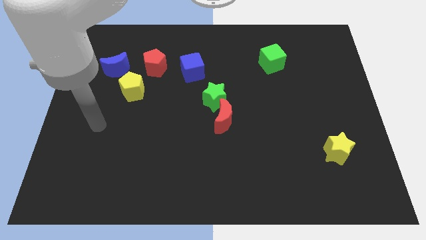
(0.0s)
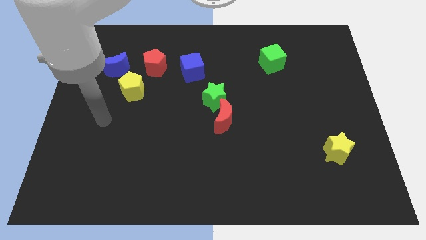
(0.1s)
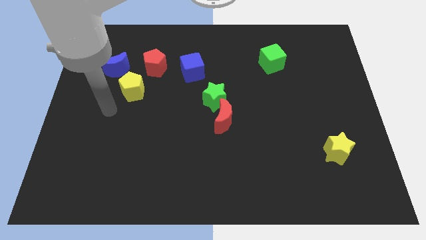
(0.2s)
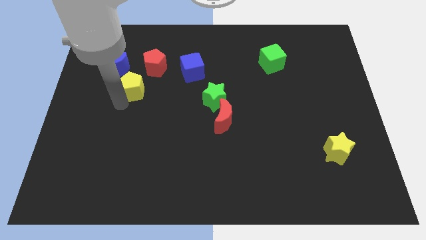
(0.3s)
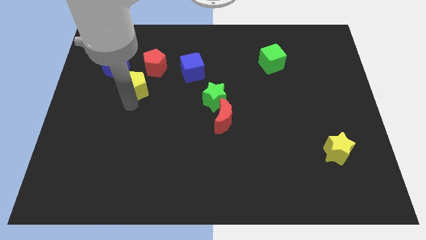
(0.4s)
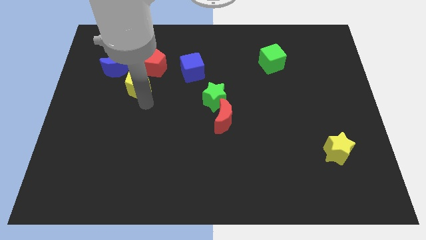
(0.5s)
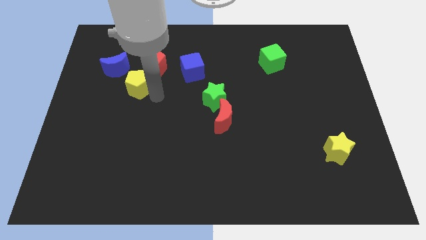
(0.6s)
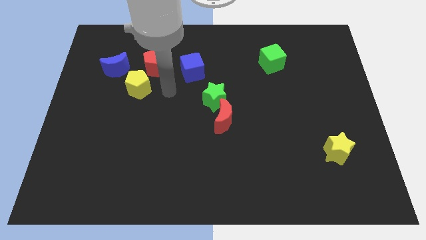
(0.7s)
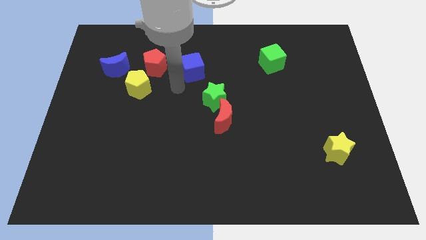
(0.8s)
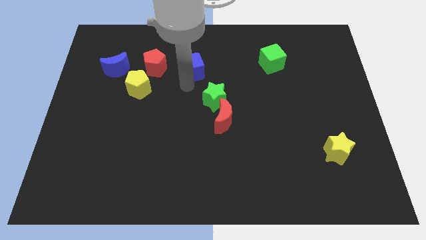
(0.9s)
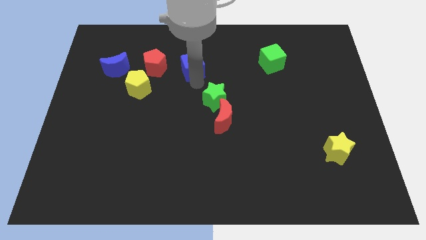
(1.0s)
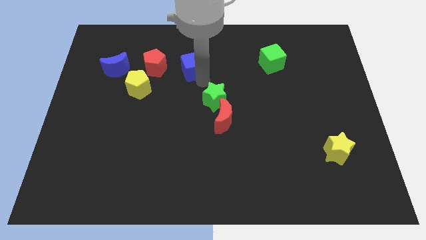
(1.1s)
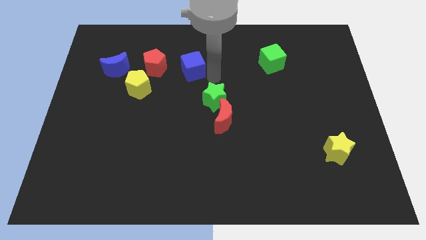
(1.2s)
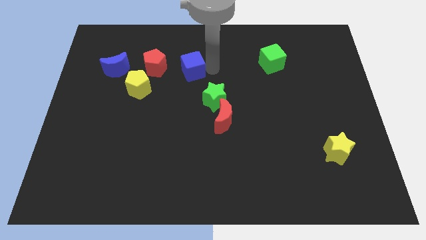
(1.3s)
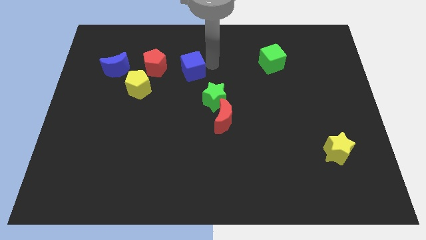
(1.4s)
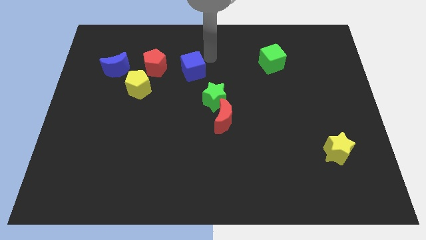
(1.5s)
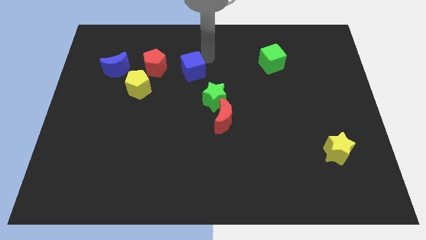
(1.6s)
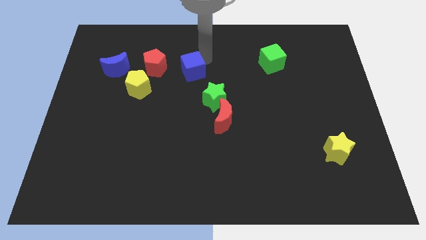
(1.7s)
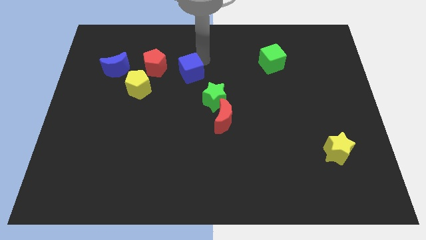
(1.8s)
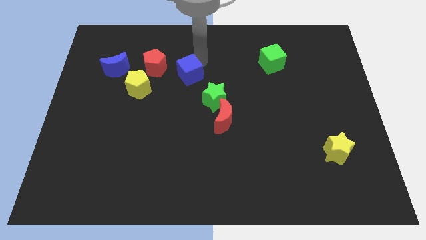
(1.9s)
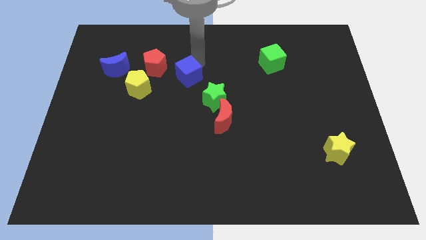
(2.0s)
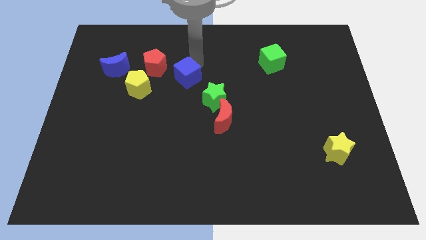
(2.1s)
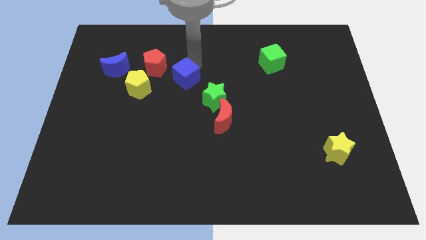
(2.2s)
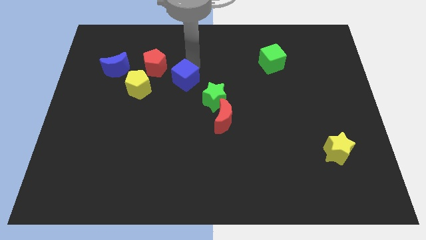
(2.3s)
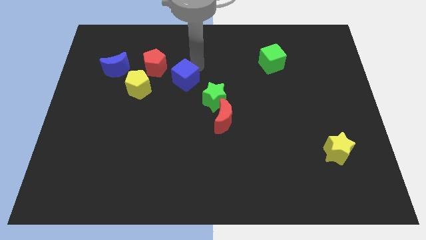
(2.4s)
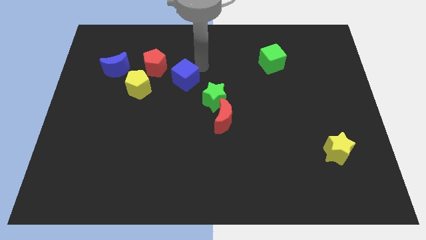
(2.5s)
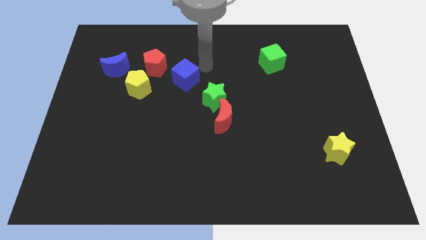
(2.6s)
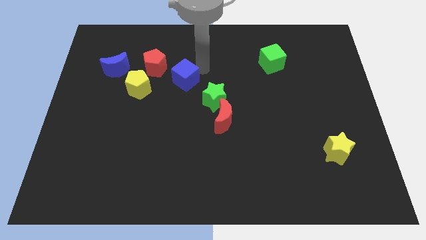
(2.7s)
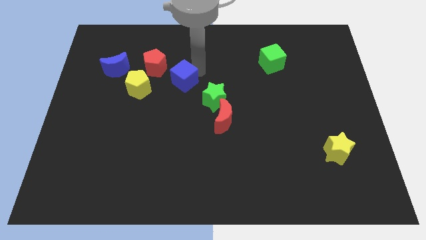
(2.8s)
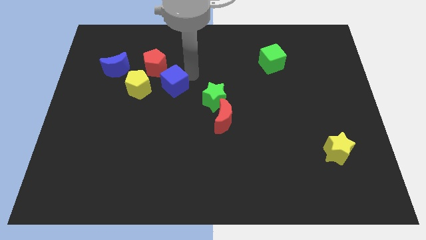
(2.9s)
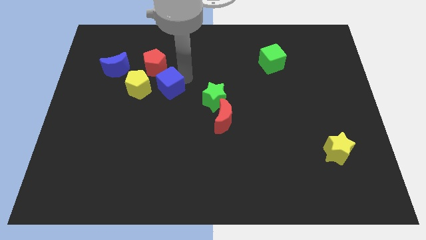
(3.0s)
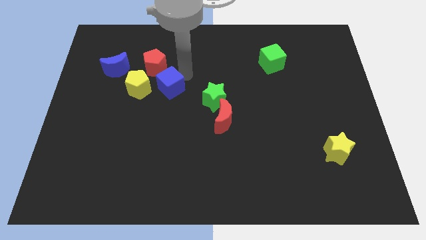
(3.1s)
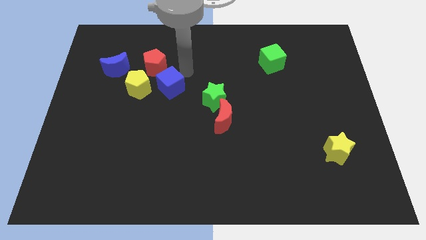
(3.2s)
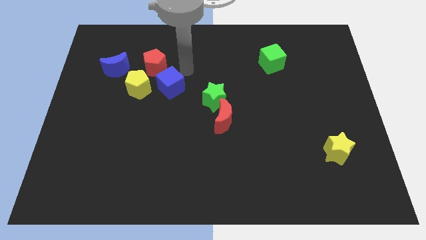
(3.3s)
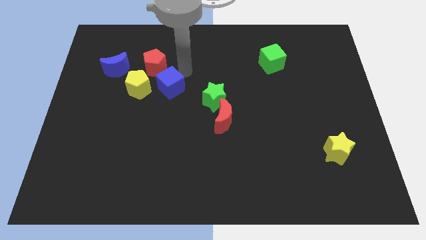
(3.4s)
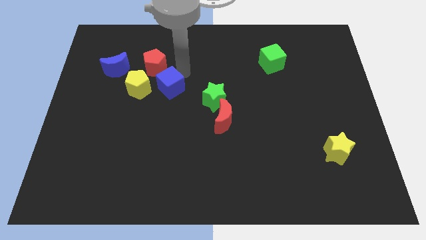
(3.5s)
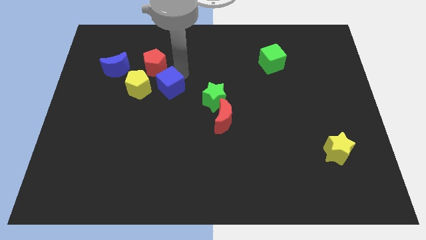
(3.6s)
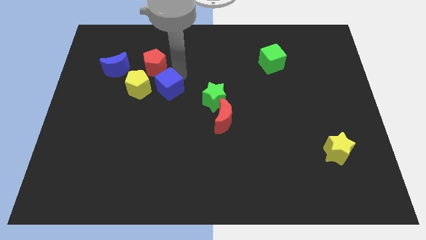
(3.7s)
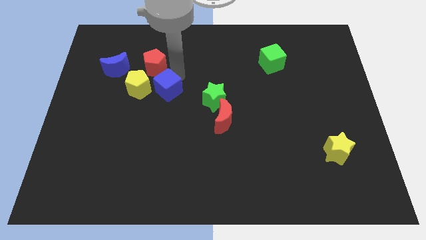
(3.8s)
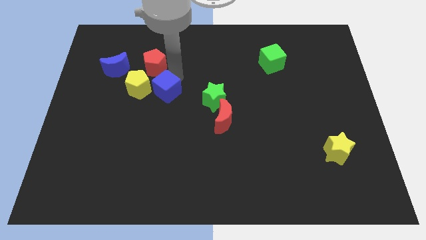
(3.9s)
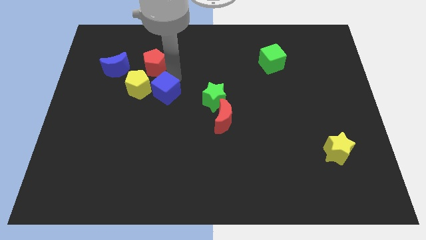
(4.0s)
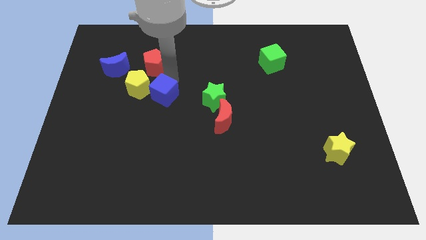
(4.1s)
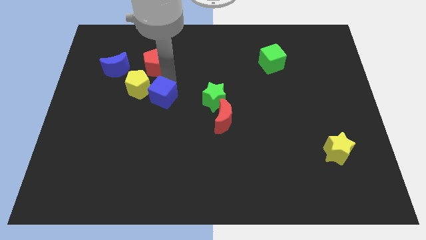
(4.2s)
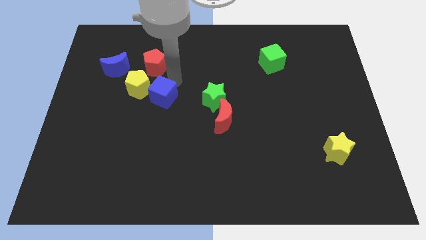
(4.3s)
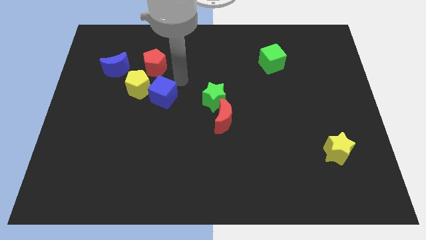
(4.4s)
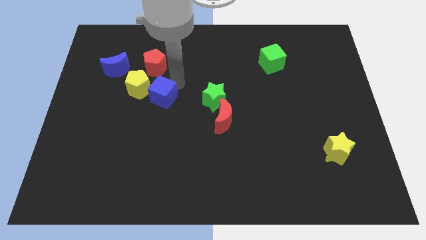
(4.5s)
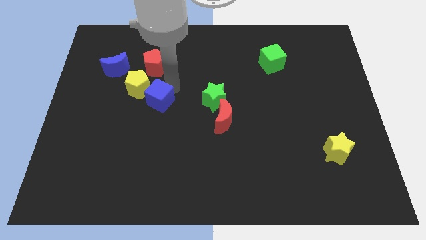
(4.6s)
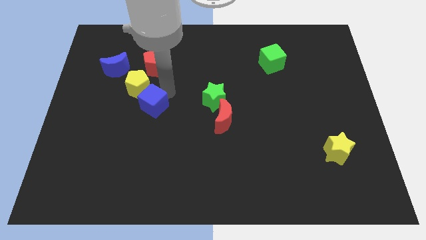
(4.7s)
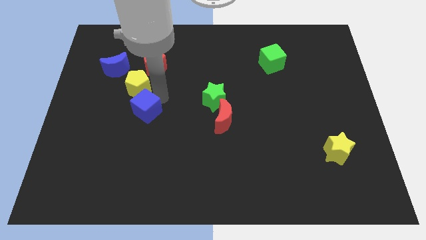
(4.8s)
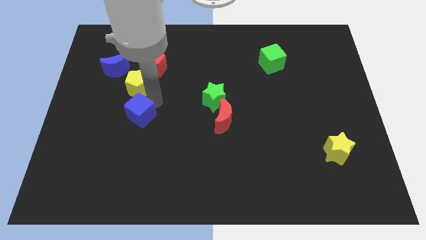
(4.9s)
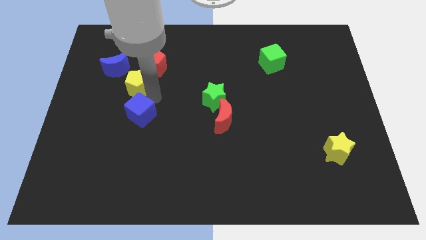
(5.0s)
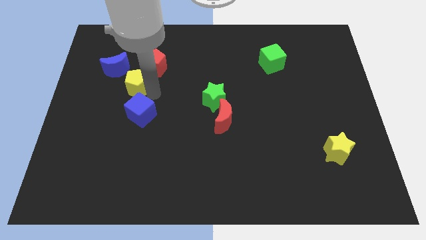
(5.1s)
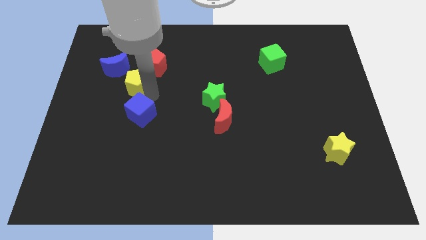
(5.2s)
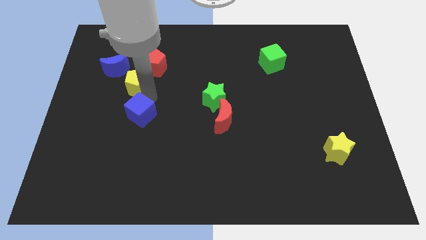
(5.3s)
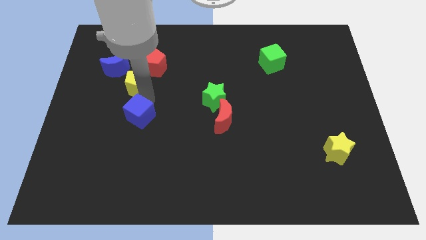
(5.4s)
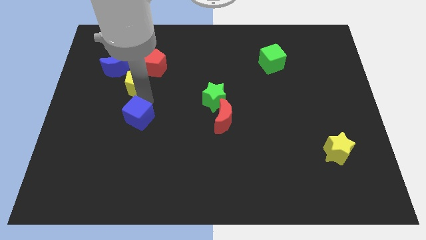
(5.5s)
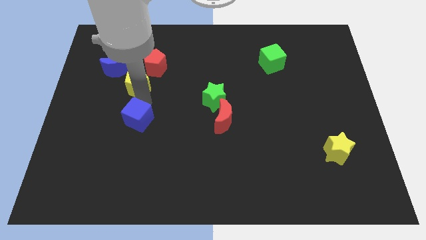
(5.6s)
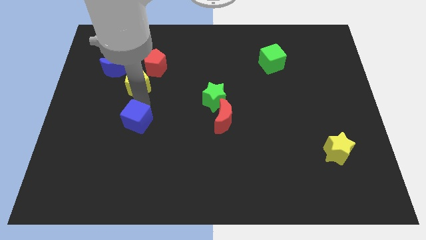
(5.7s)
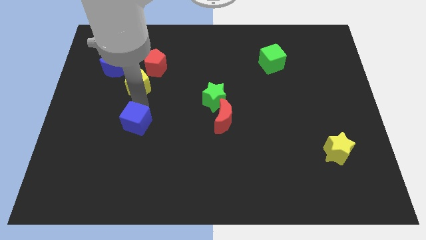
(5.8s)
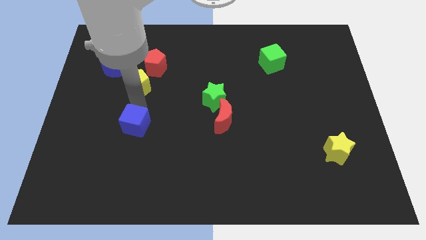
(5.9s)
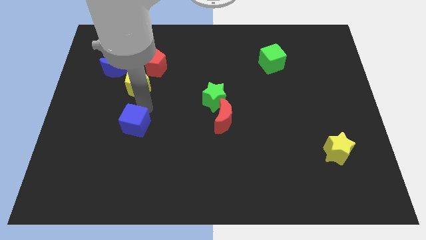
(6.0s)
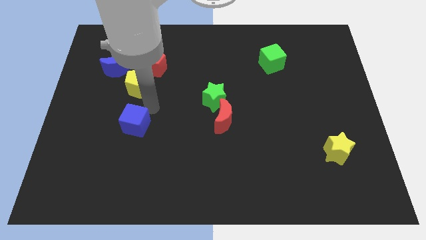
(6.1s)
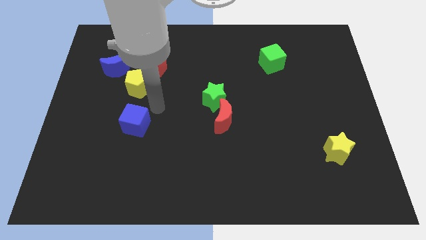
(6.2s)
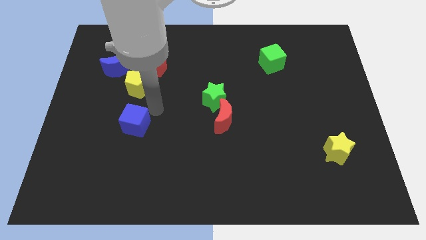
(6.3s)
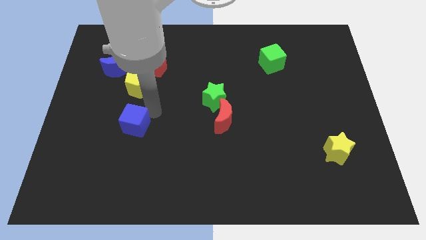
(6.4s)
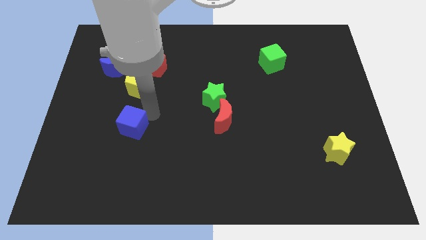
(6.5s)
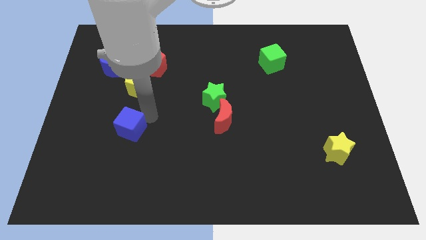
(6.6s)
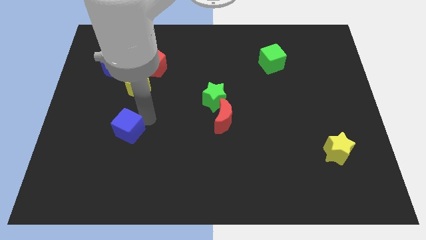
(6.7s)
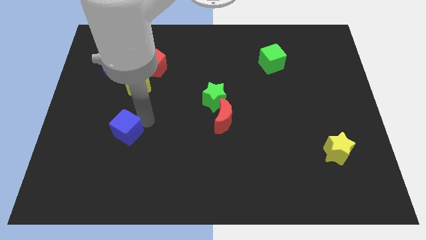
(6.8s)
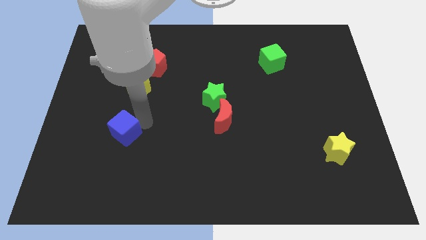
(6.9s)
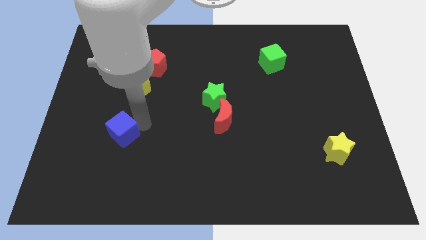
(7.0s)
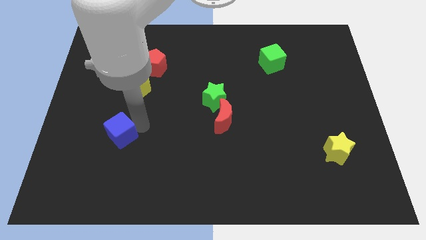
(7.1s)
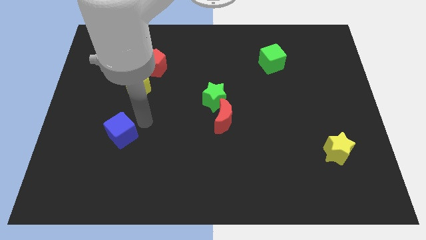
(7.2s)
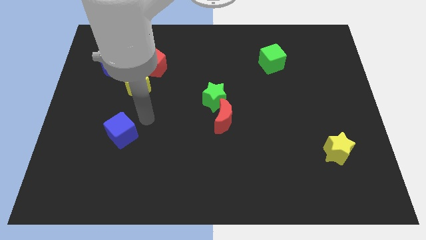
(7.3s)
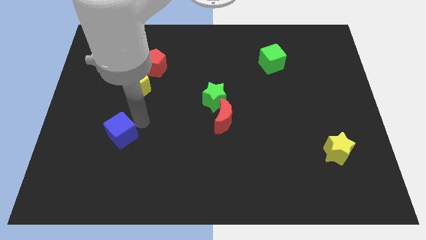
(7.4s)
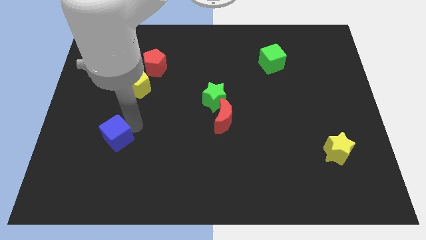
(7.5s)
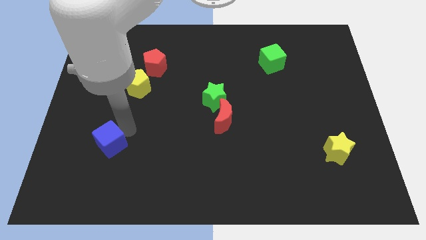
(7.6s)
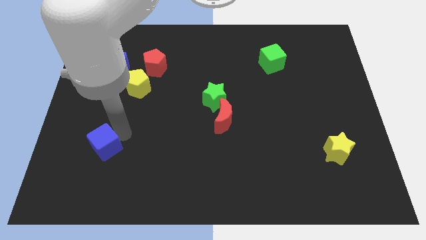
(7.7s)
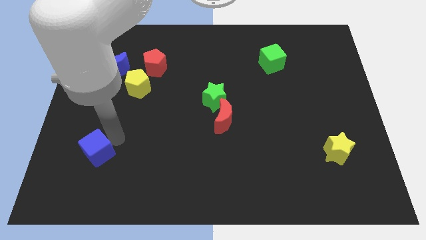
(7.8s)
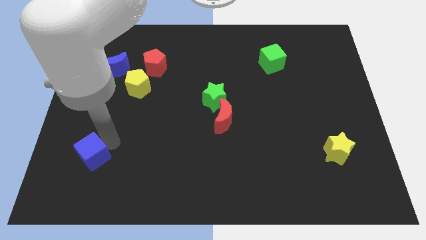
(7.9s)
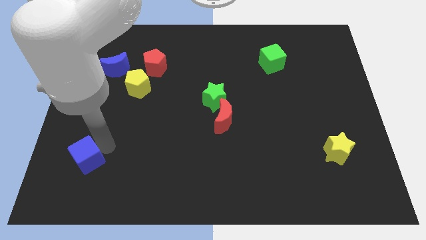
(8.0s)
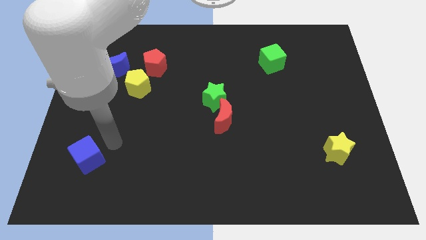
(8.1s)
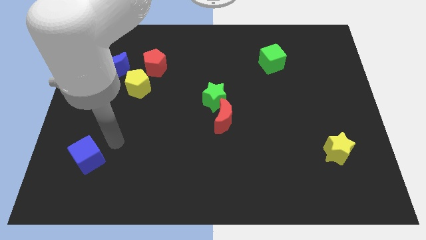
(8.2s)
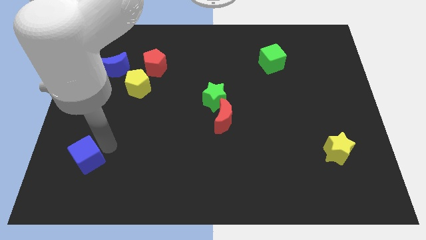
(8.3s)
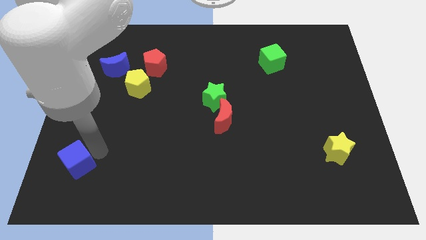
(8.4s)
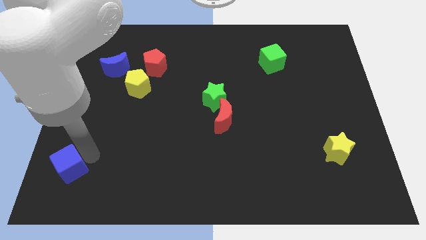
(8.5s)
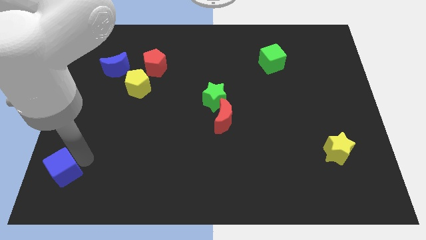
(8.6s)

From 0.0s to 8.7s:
push the blue cube to the bottom left corner
